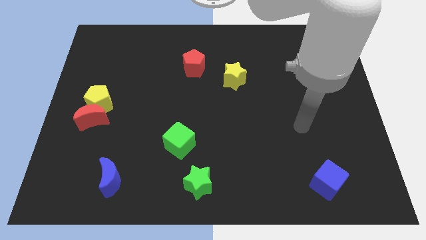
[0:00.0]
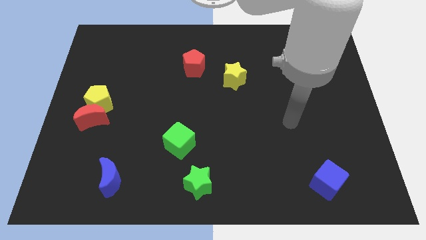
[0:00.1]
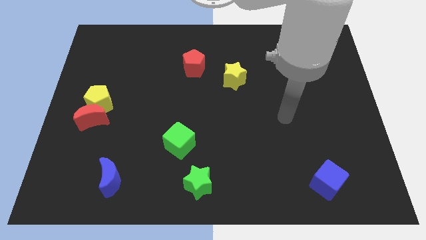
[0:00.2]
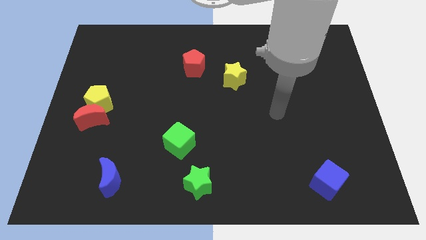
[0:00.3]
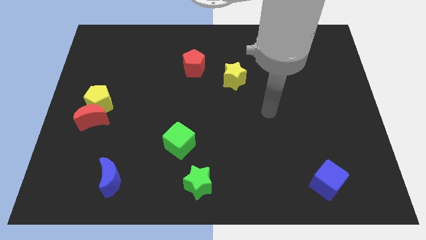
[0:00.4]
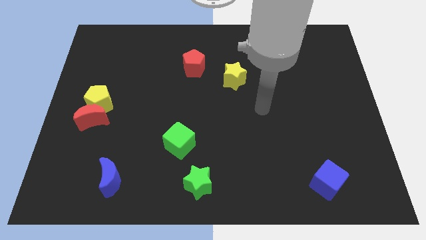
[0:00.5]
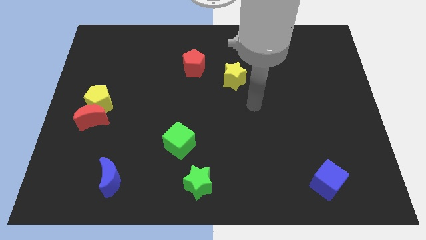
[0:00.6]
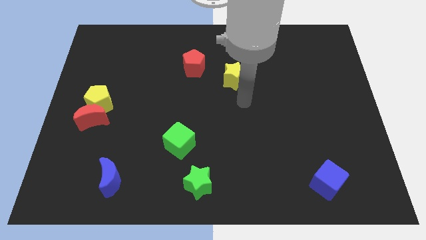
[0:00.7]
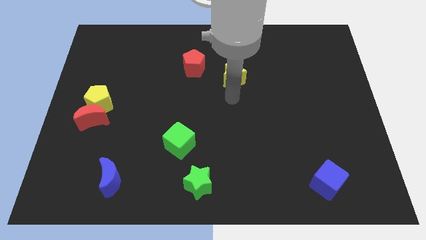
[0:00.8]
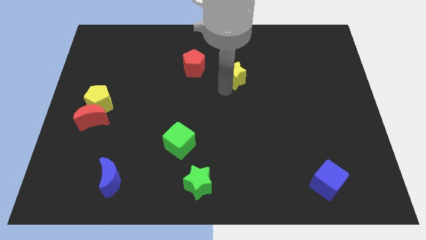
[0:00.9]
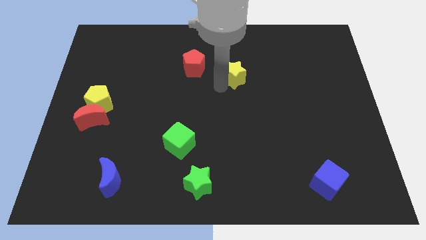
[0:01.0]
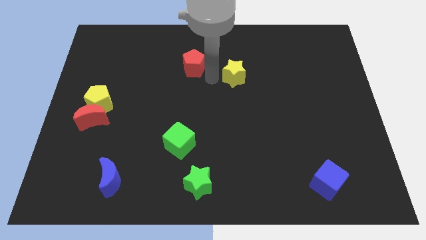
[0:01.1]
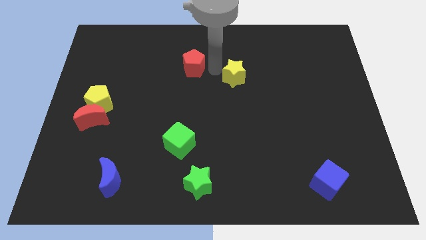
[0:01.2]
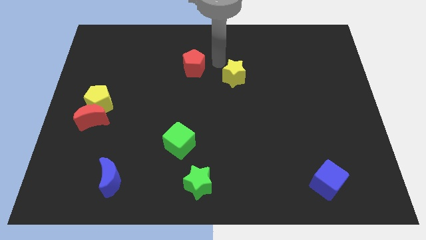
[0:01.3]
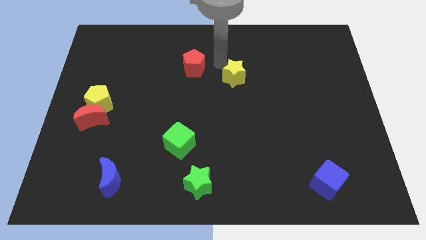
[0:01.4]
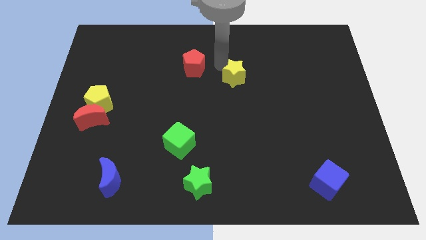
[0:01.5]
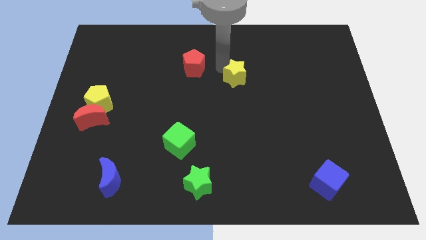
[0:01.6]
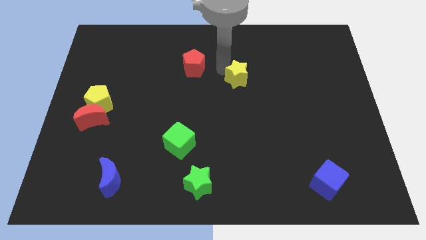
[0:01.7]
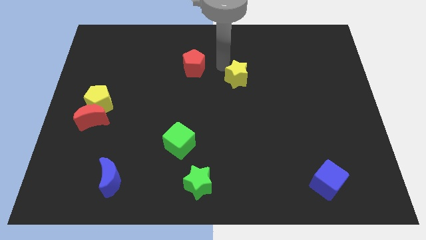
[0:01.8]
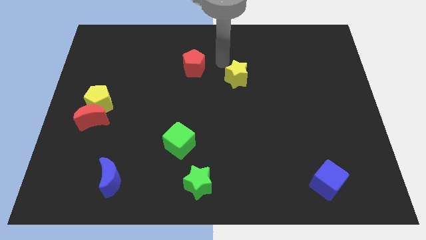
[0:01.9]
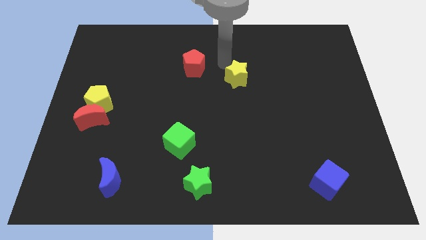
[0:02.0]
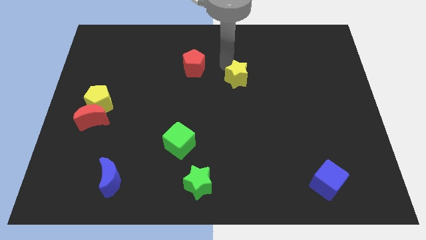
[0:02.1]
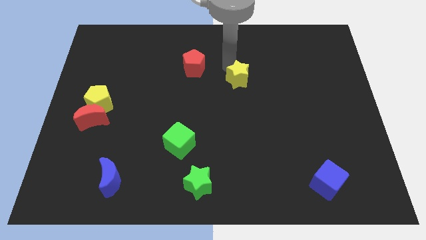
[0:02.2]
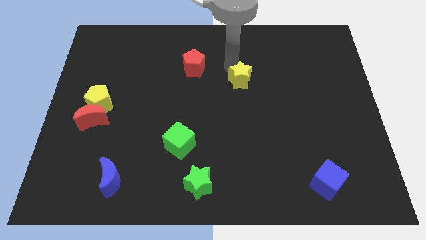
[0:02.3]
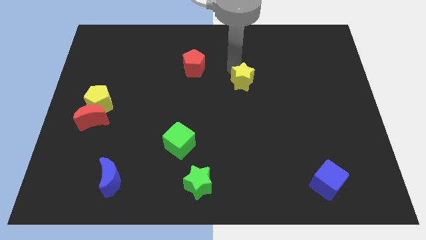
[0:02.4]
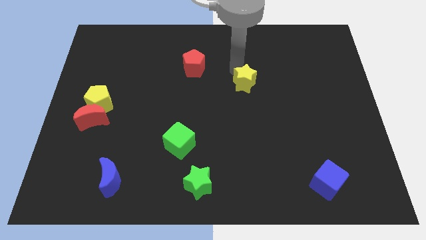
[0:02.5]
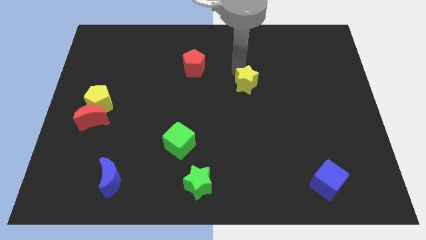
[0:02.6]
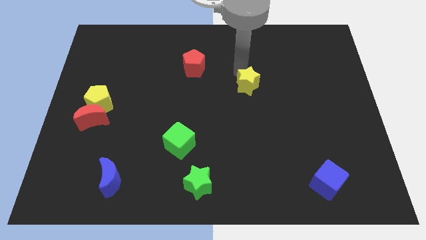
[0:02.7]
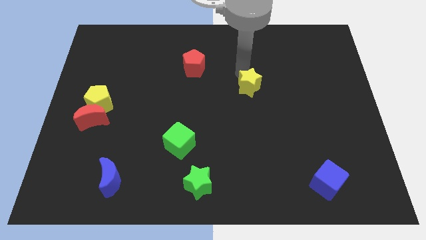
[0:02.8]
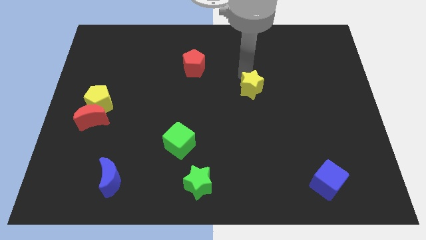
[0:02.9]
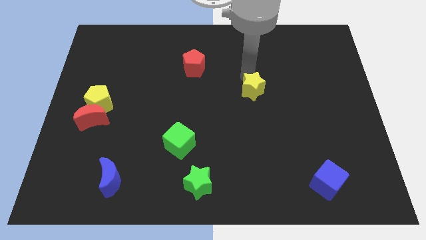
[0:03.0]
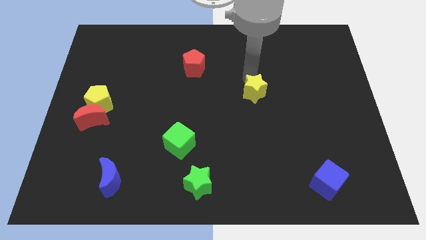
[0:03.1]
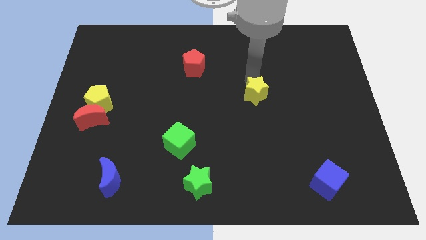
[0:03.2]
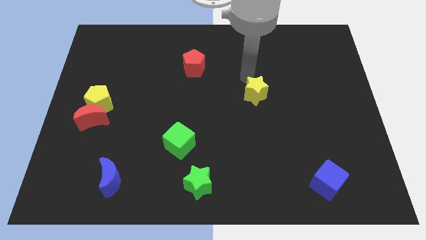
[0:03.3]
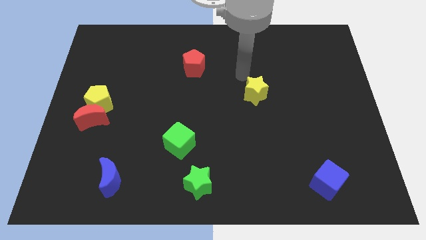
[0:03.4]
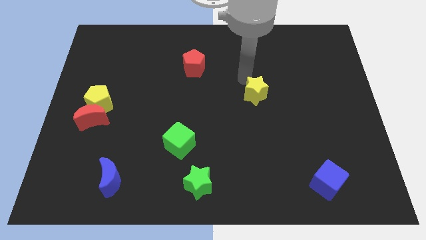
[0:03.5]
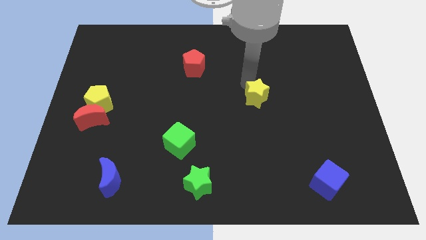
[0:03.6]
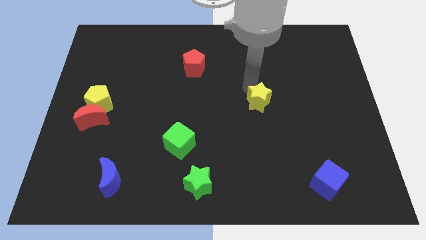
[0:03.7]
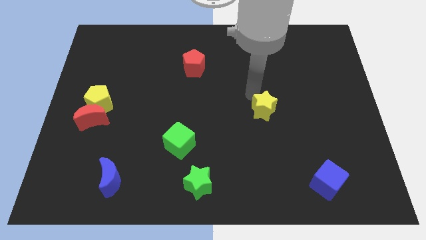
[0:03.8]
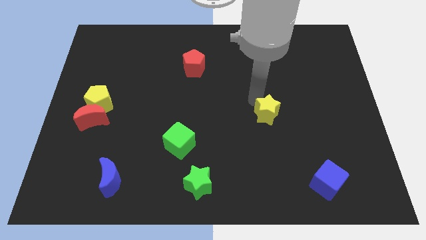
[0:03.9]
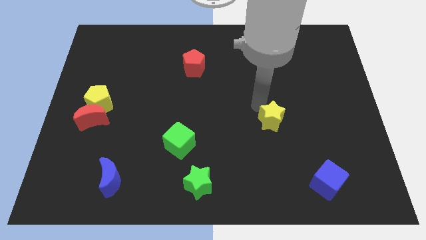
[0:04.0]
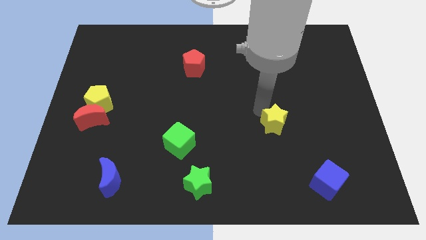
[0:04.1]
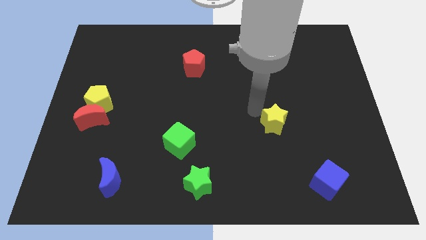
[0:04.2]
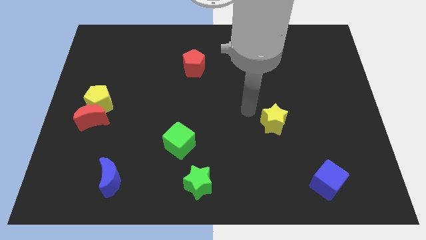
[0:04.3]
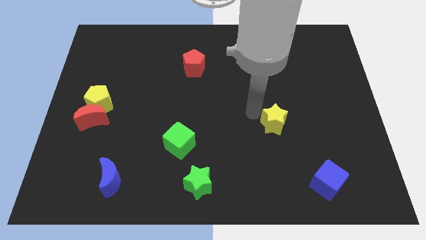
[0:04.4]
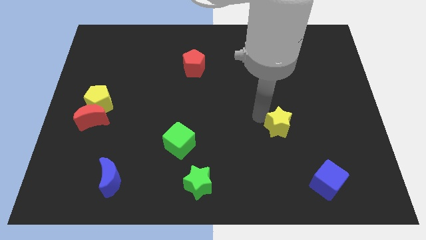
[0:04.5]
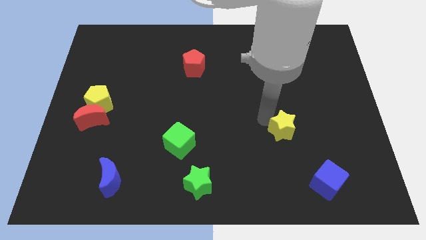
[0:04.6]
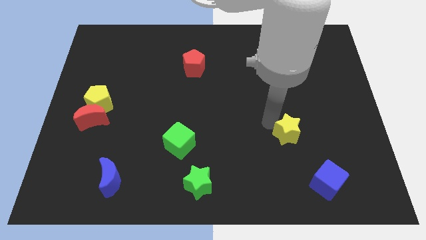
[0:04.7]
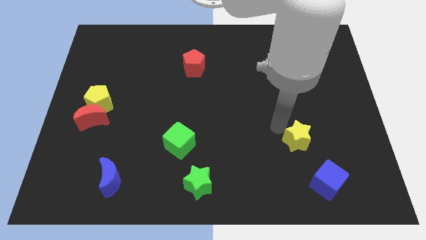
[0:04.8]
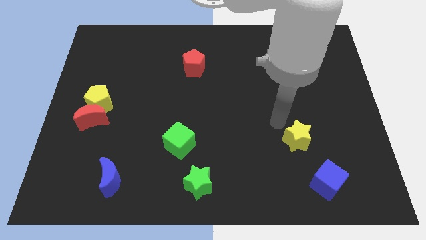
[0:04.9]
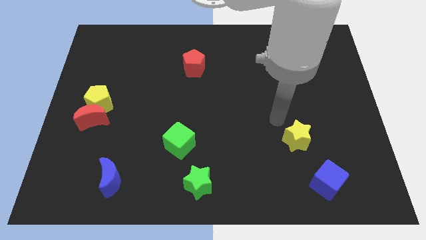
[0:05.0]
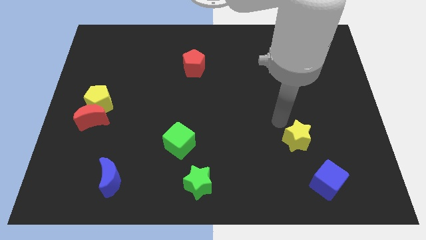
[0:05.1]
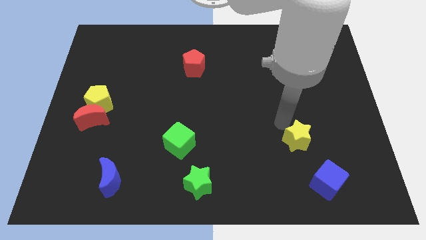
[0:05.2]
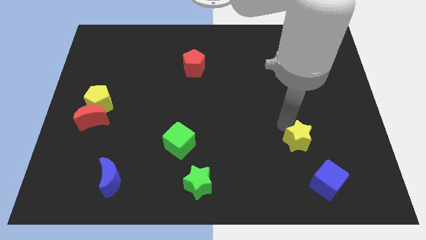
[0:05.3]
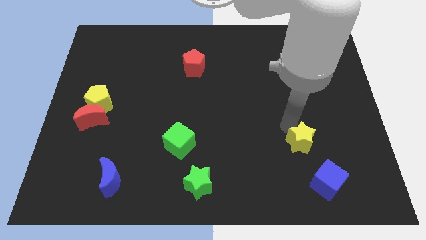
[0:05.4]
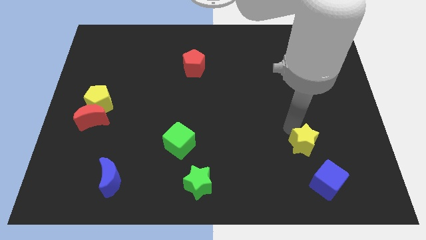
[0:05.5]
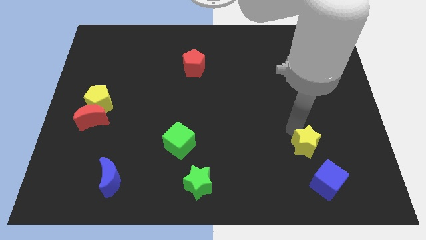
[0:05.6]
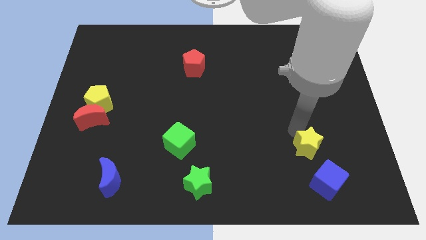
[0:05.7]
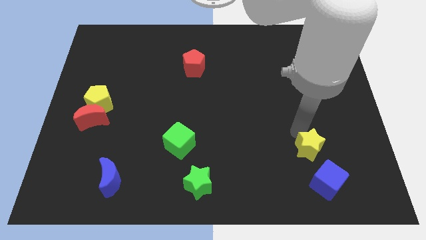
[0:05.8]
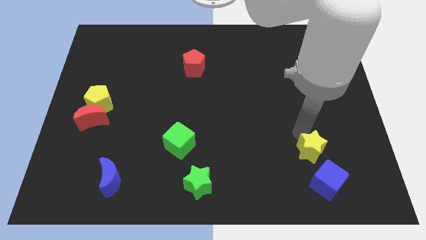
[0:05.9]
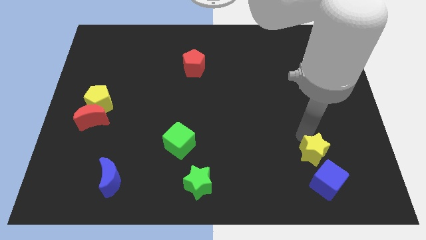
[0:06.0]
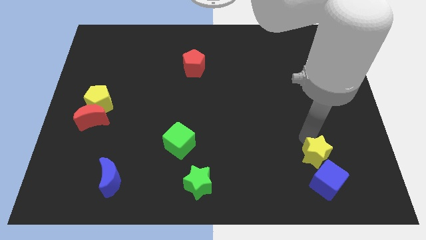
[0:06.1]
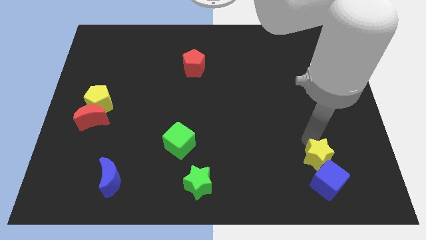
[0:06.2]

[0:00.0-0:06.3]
move the yellow star close to the blue cube

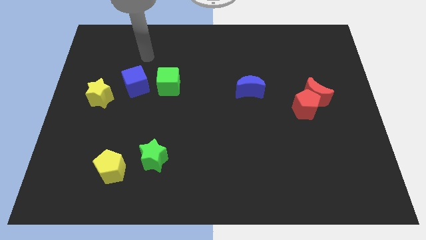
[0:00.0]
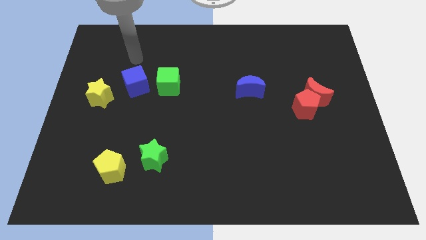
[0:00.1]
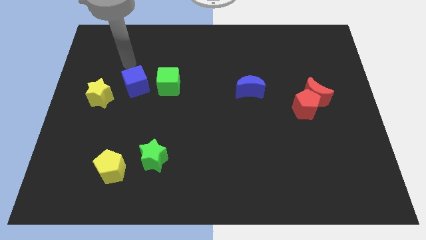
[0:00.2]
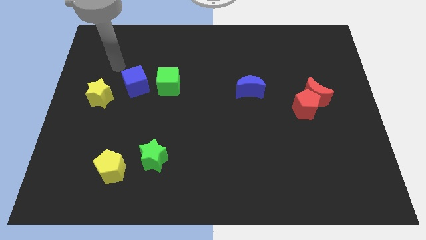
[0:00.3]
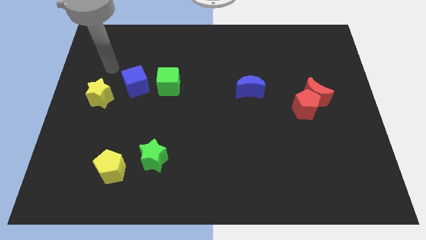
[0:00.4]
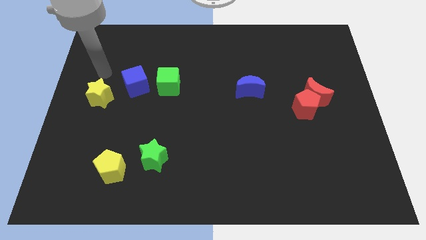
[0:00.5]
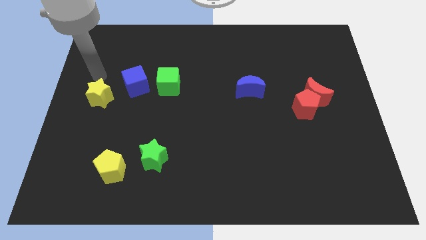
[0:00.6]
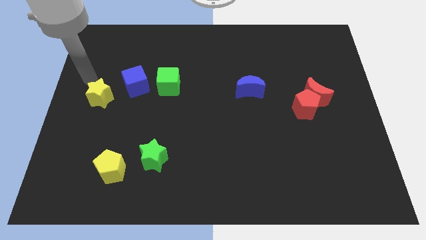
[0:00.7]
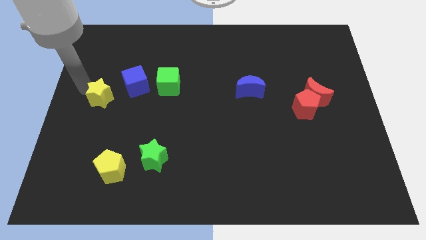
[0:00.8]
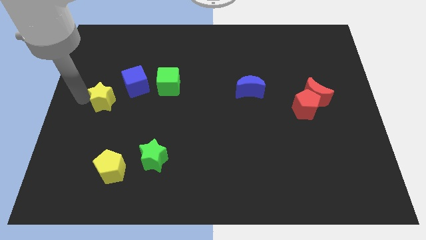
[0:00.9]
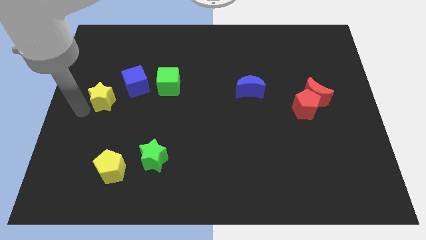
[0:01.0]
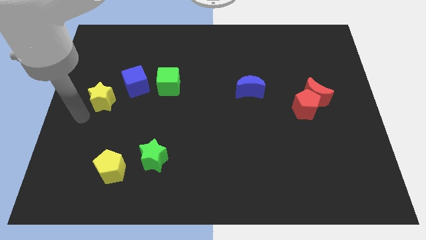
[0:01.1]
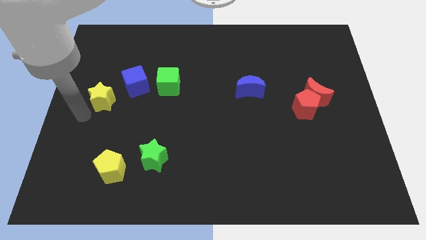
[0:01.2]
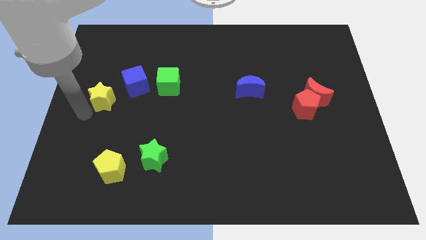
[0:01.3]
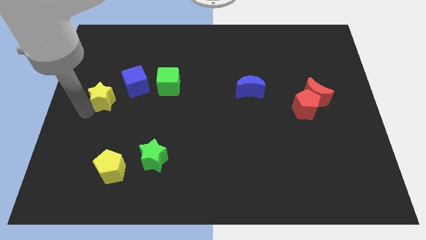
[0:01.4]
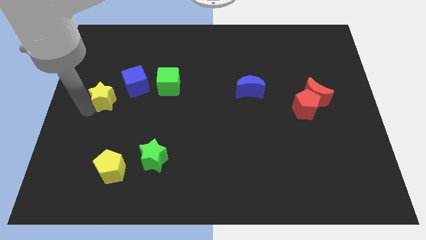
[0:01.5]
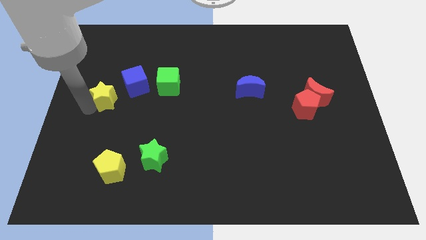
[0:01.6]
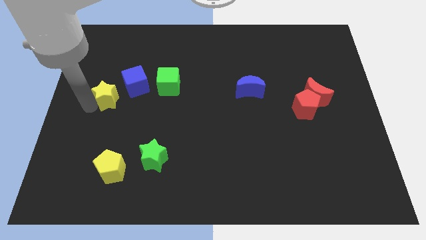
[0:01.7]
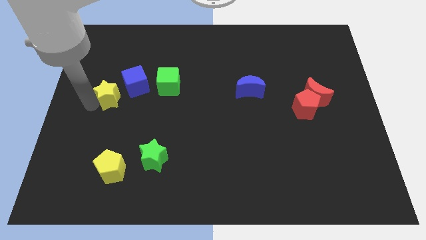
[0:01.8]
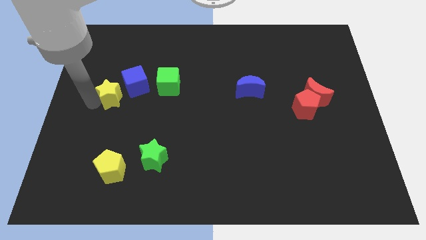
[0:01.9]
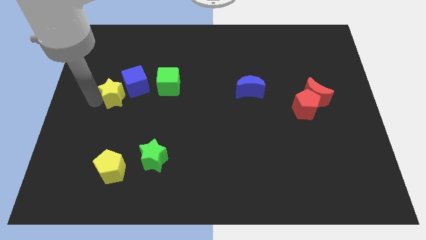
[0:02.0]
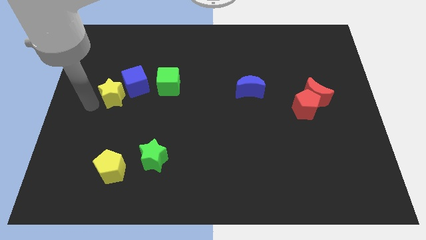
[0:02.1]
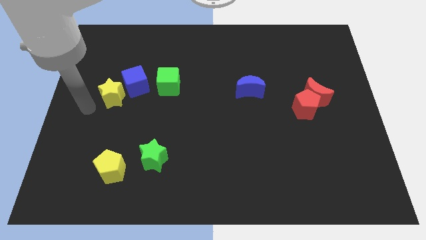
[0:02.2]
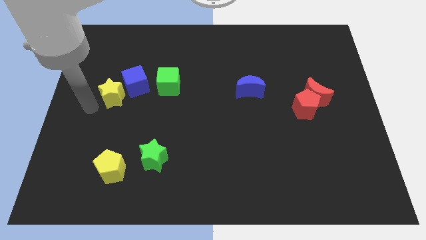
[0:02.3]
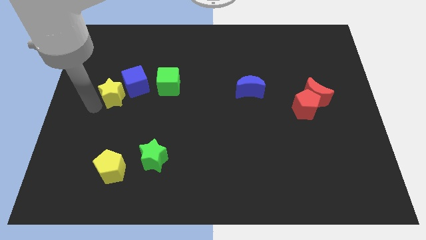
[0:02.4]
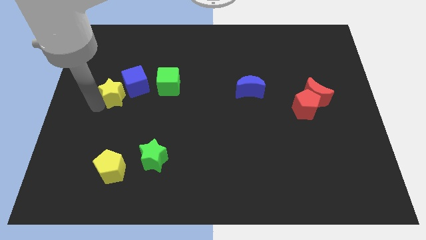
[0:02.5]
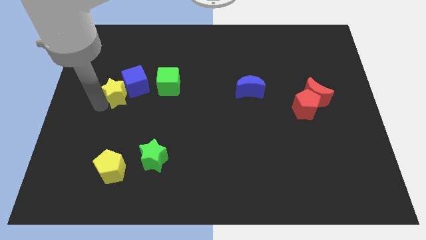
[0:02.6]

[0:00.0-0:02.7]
put the yellow star next to the blue cube
